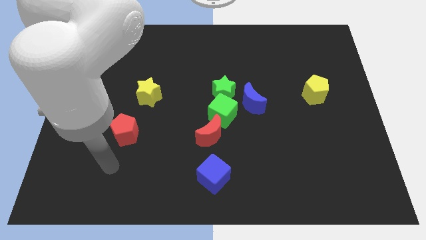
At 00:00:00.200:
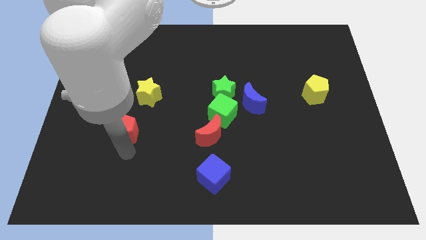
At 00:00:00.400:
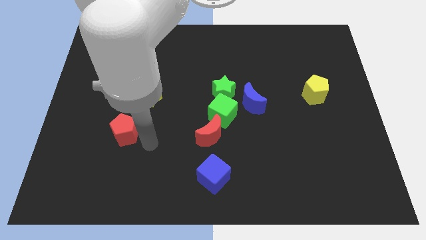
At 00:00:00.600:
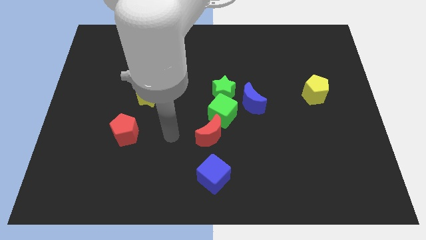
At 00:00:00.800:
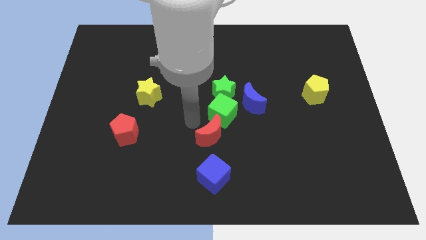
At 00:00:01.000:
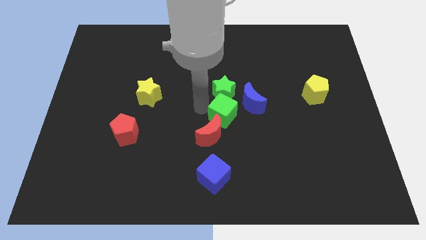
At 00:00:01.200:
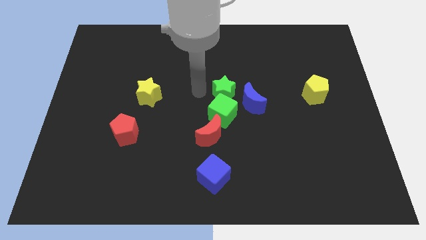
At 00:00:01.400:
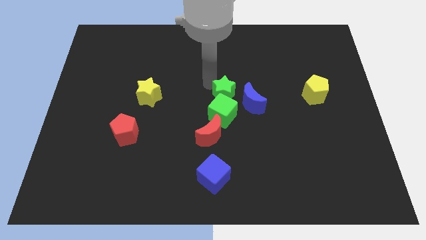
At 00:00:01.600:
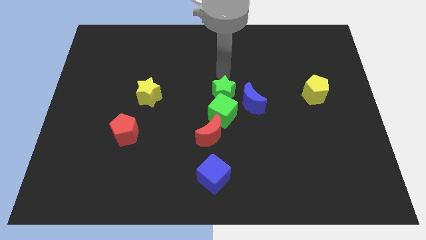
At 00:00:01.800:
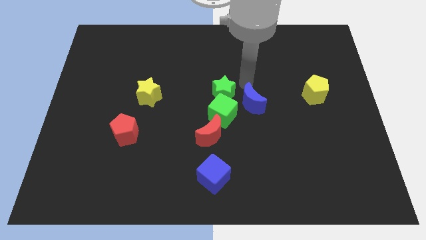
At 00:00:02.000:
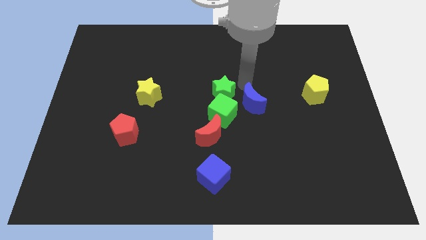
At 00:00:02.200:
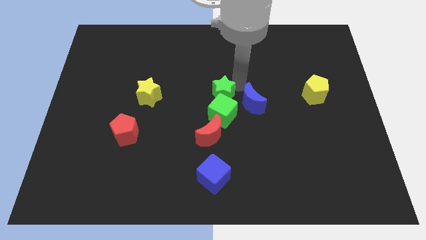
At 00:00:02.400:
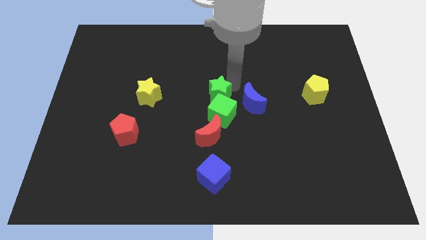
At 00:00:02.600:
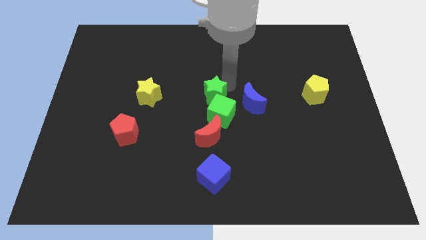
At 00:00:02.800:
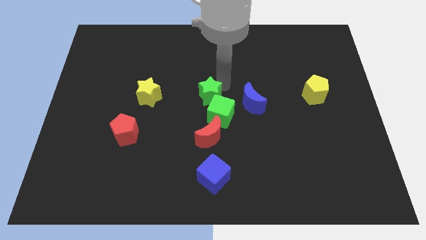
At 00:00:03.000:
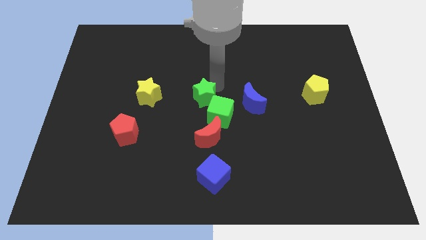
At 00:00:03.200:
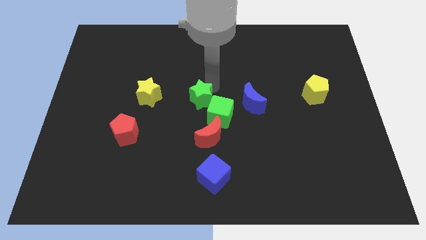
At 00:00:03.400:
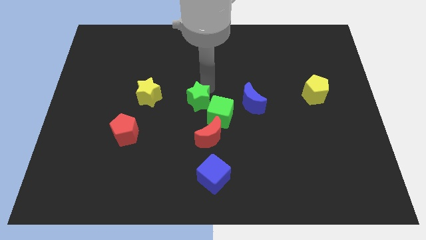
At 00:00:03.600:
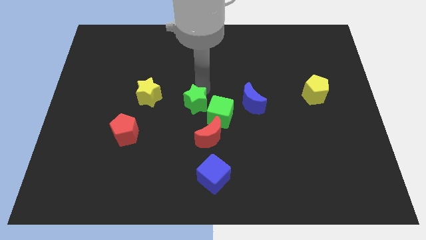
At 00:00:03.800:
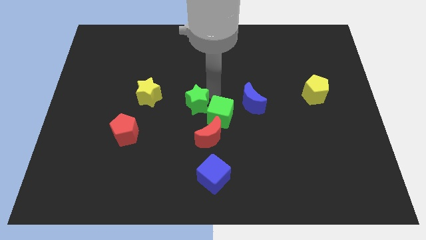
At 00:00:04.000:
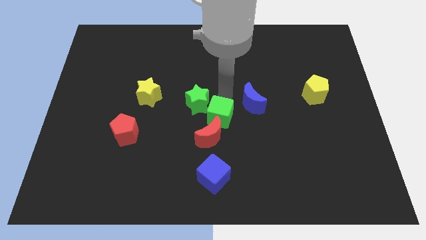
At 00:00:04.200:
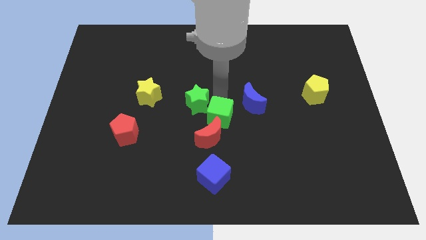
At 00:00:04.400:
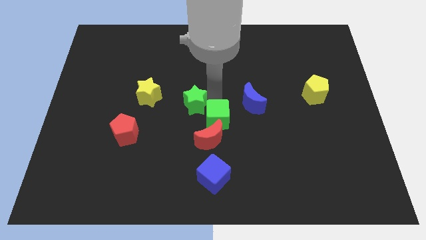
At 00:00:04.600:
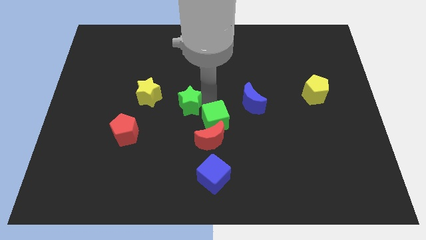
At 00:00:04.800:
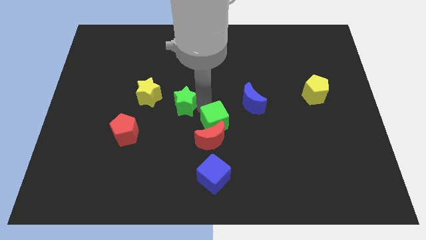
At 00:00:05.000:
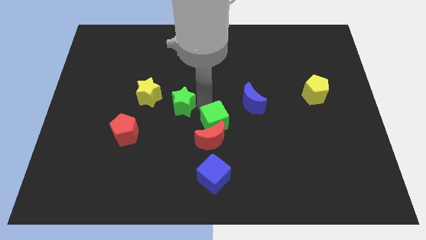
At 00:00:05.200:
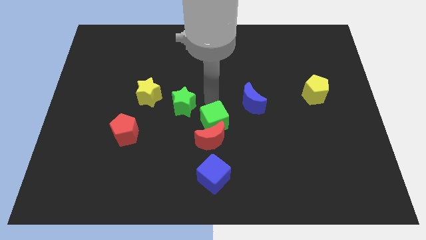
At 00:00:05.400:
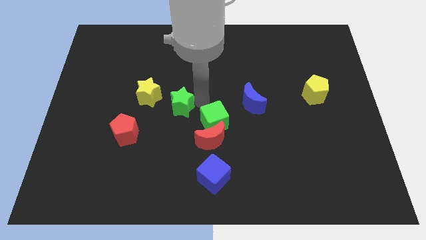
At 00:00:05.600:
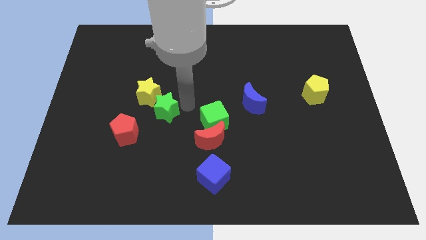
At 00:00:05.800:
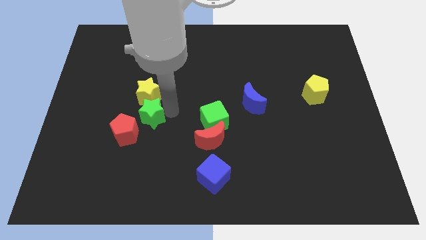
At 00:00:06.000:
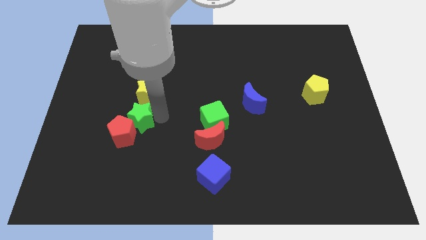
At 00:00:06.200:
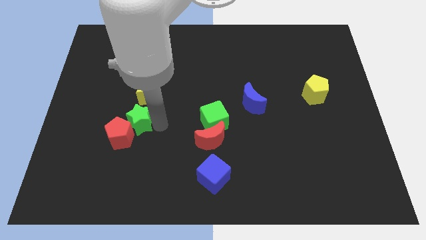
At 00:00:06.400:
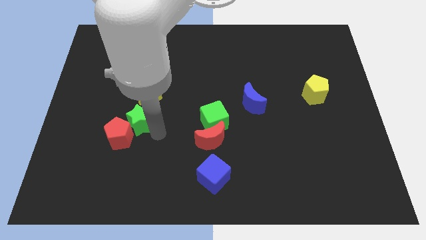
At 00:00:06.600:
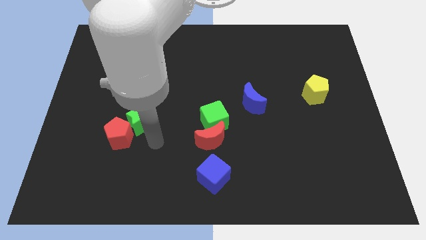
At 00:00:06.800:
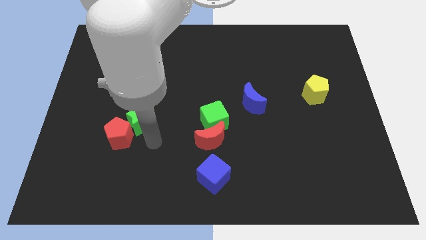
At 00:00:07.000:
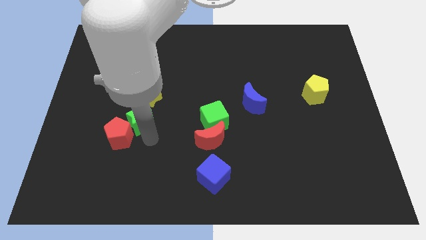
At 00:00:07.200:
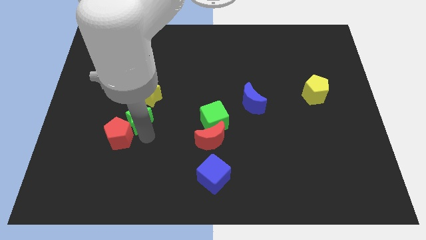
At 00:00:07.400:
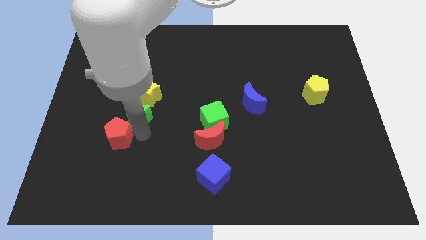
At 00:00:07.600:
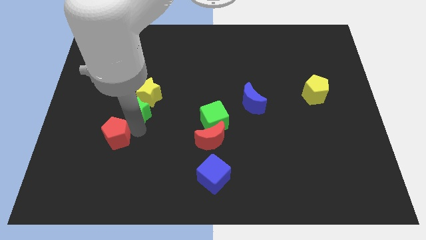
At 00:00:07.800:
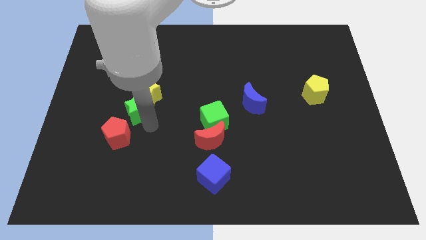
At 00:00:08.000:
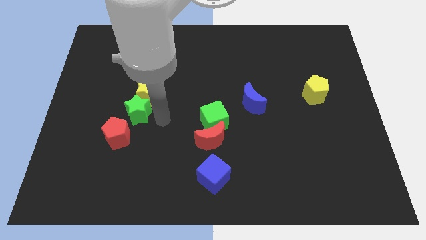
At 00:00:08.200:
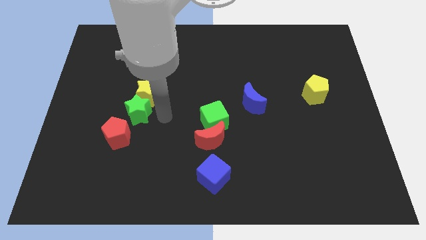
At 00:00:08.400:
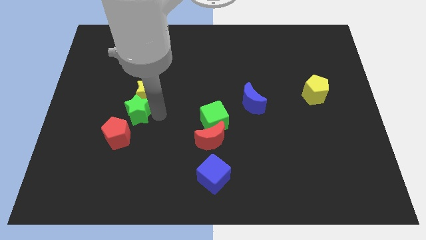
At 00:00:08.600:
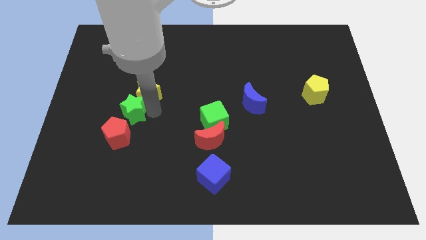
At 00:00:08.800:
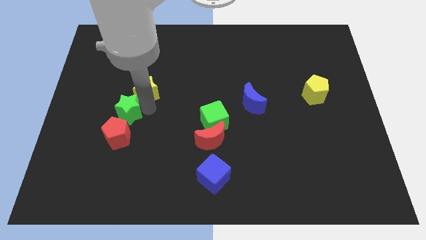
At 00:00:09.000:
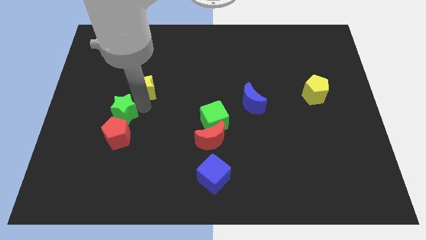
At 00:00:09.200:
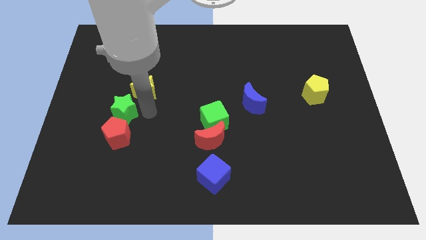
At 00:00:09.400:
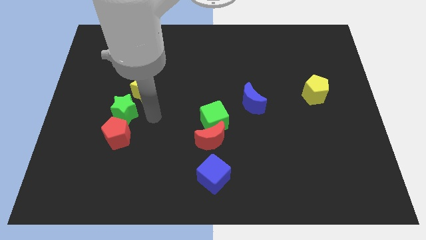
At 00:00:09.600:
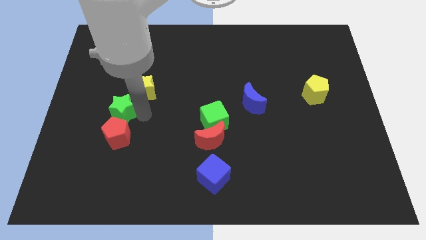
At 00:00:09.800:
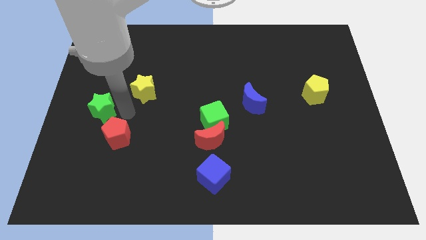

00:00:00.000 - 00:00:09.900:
put the green star to the center left

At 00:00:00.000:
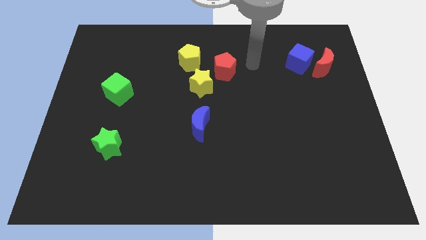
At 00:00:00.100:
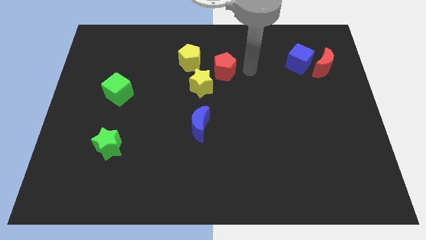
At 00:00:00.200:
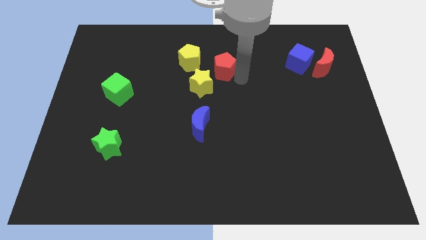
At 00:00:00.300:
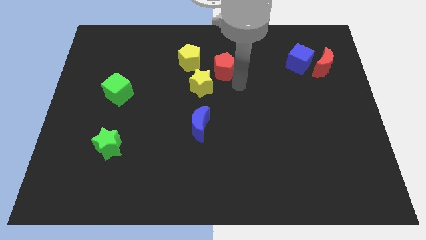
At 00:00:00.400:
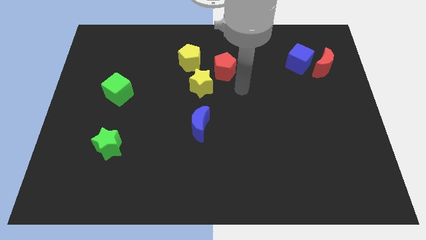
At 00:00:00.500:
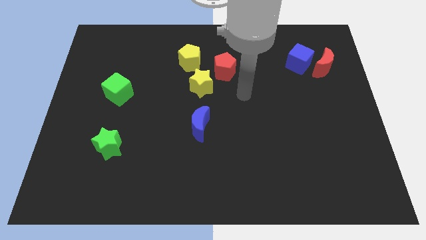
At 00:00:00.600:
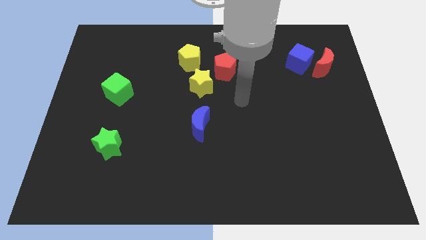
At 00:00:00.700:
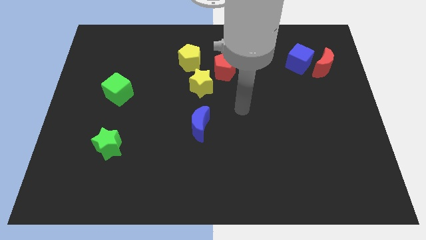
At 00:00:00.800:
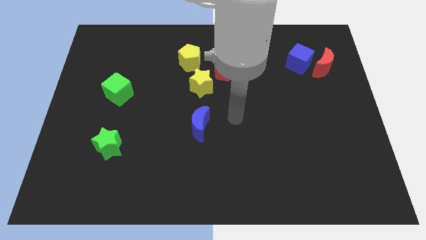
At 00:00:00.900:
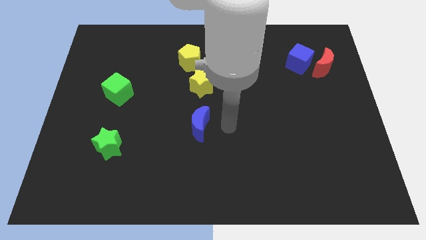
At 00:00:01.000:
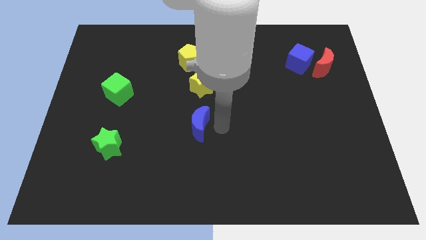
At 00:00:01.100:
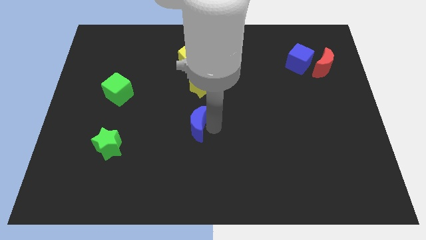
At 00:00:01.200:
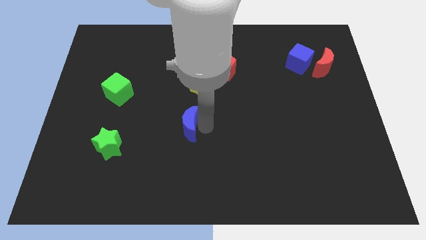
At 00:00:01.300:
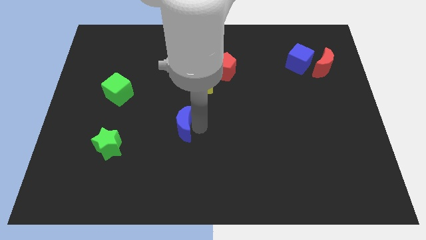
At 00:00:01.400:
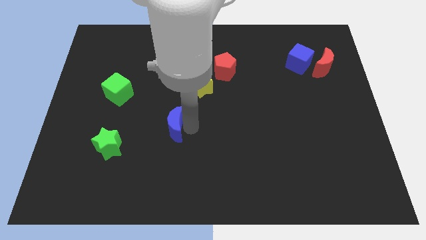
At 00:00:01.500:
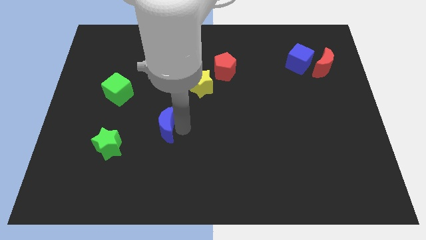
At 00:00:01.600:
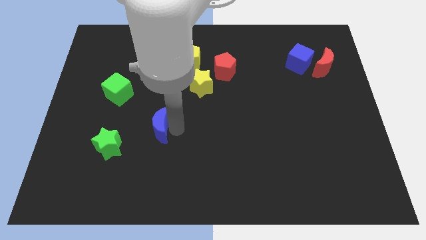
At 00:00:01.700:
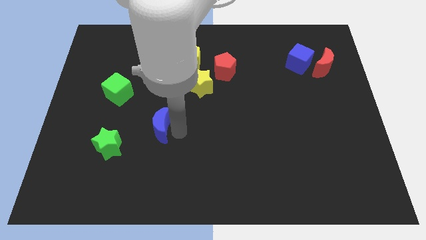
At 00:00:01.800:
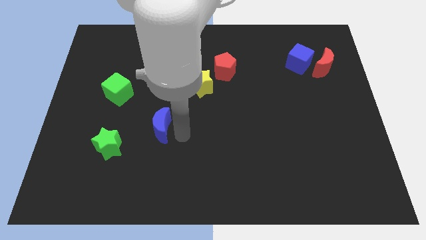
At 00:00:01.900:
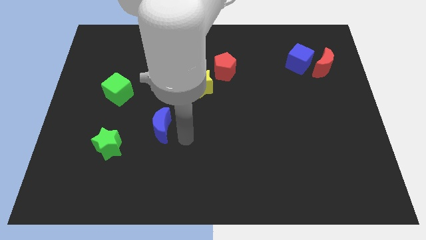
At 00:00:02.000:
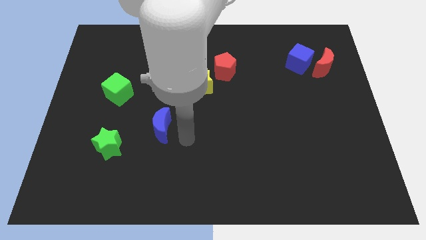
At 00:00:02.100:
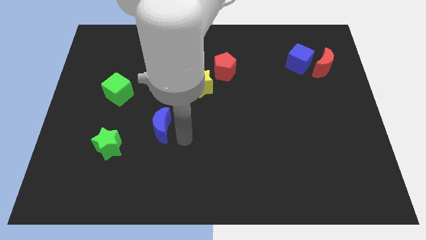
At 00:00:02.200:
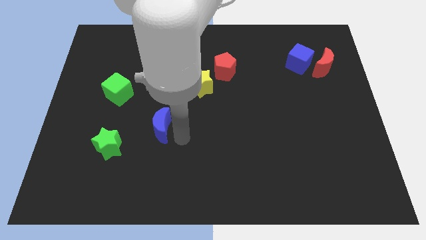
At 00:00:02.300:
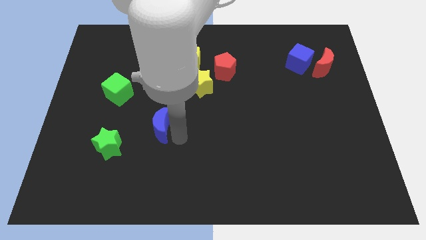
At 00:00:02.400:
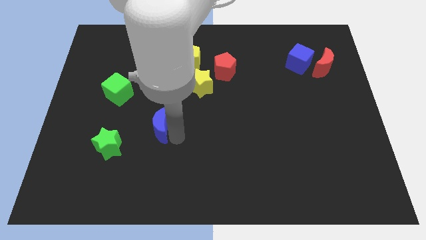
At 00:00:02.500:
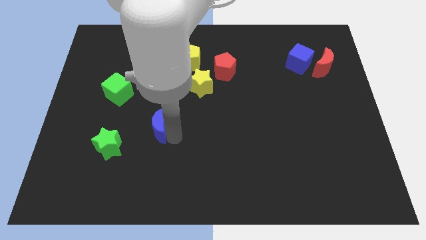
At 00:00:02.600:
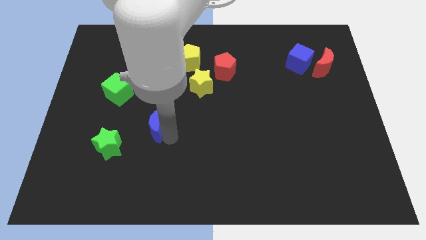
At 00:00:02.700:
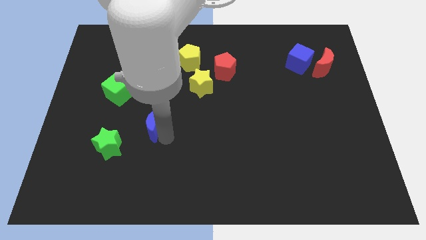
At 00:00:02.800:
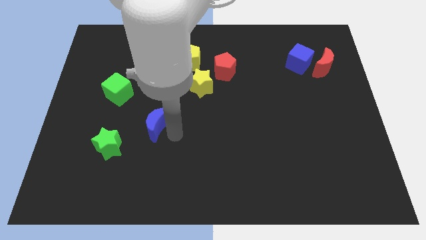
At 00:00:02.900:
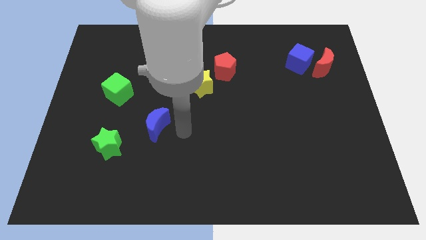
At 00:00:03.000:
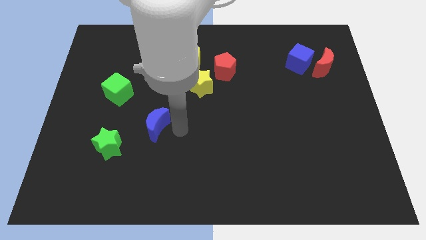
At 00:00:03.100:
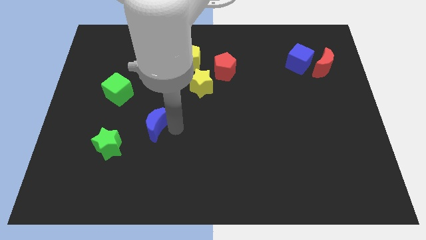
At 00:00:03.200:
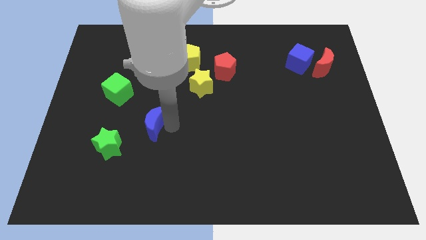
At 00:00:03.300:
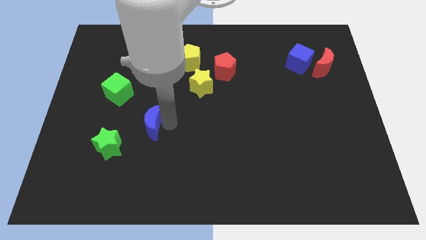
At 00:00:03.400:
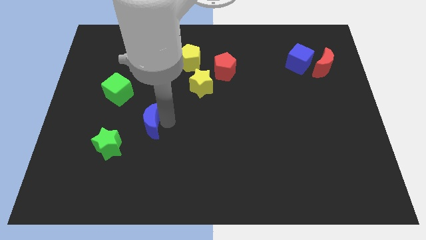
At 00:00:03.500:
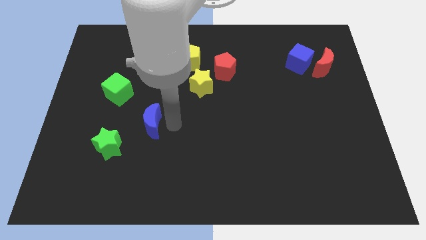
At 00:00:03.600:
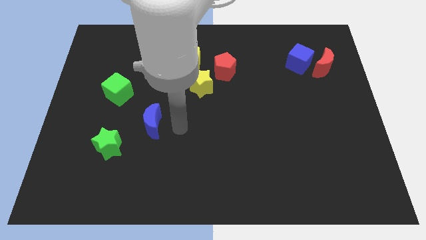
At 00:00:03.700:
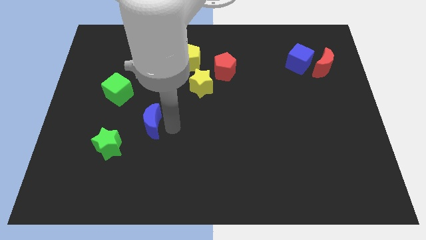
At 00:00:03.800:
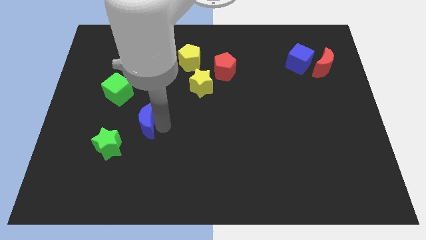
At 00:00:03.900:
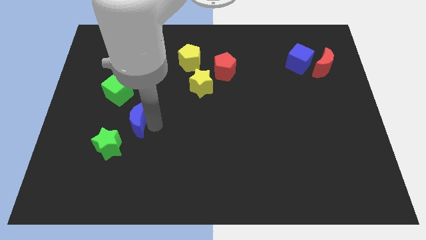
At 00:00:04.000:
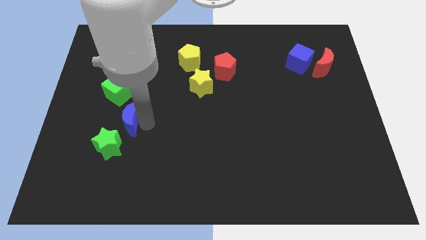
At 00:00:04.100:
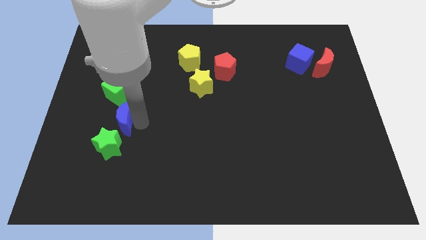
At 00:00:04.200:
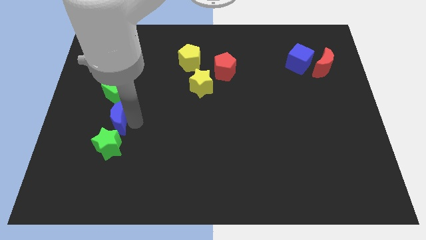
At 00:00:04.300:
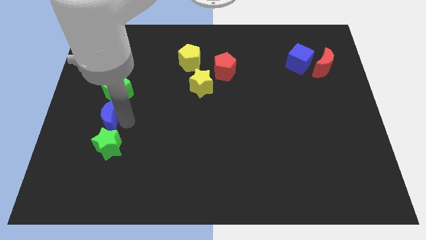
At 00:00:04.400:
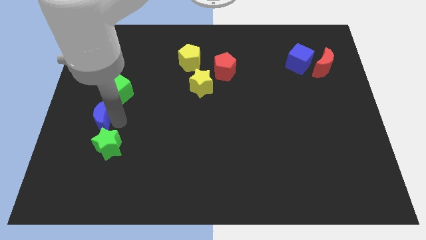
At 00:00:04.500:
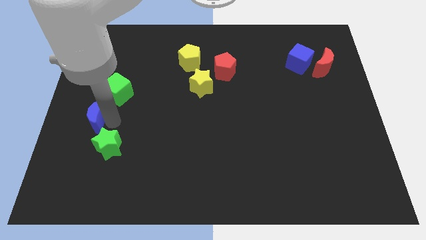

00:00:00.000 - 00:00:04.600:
push the blue moon to the left side of the board
